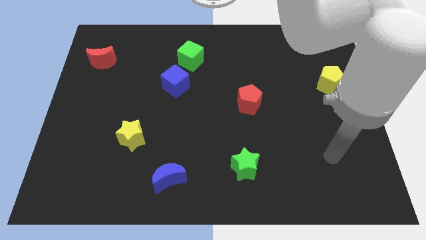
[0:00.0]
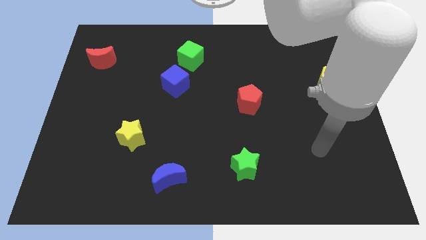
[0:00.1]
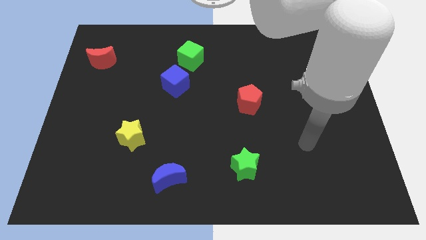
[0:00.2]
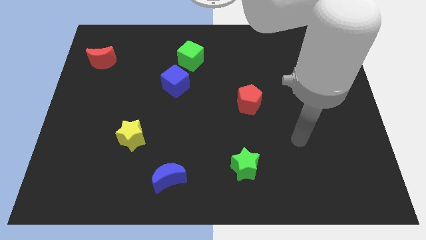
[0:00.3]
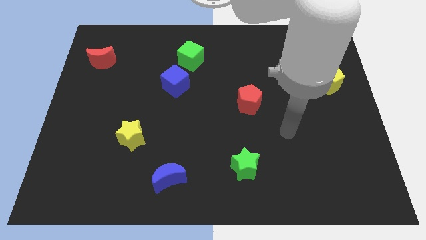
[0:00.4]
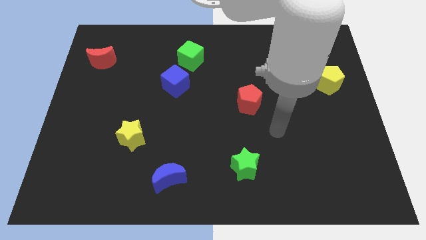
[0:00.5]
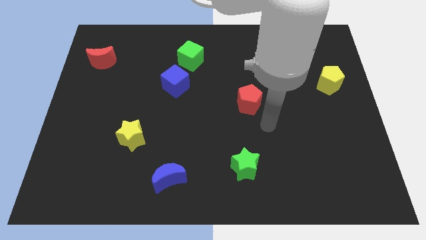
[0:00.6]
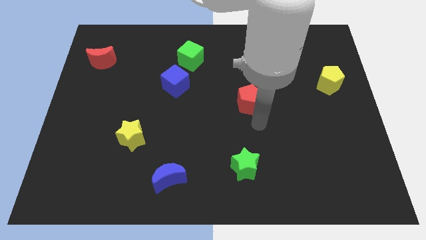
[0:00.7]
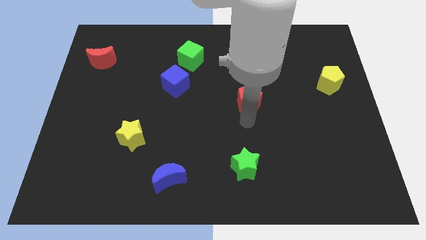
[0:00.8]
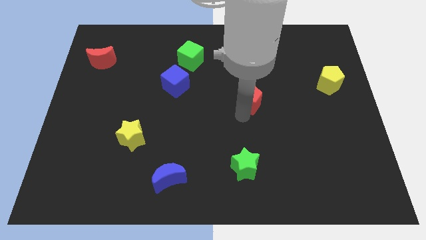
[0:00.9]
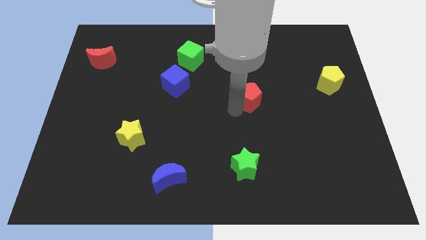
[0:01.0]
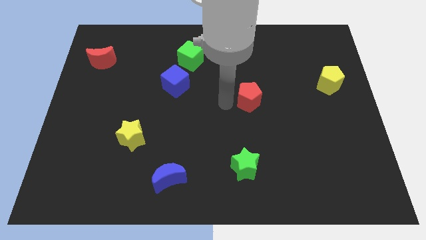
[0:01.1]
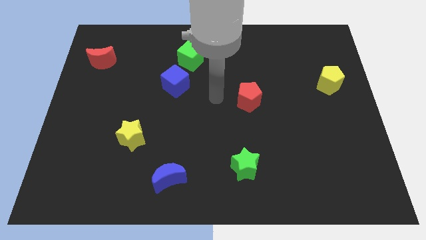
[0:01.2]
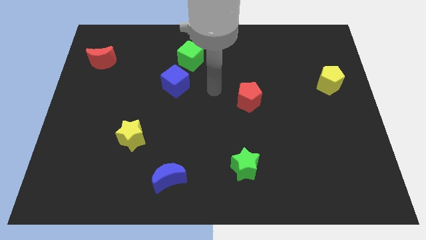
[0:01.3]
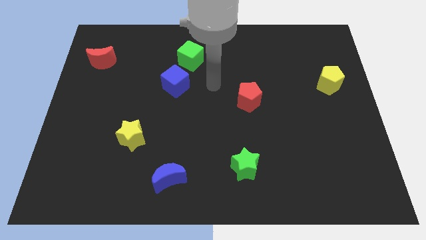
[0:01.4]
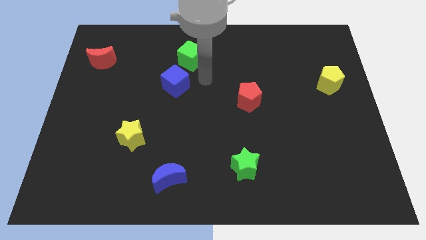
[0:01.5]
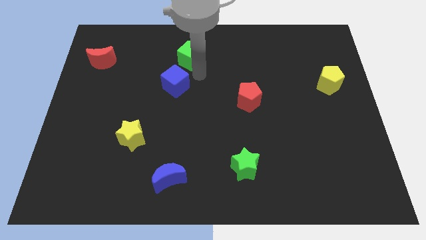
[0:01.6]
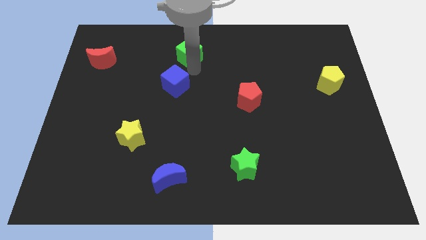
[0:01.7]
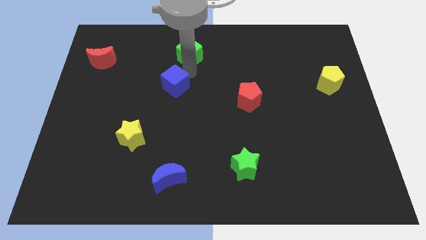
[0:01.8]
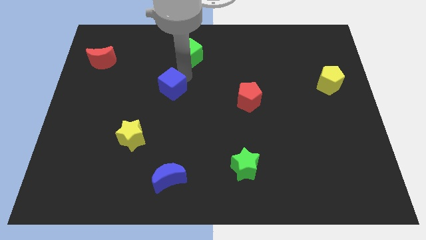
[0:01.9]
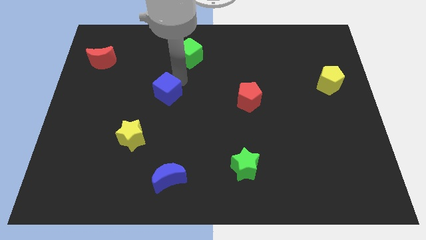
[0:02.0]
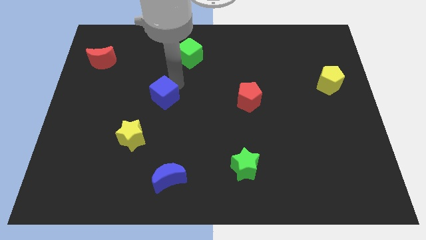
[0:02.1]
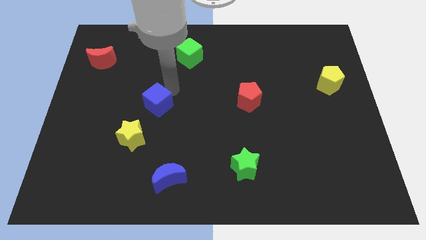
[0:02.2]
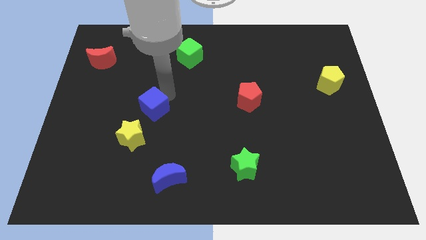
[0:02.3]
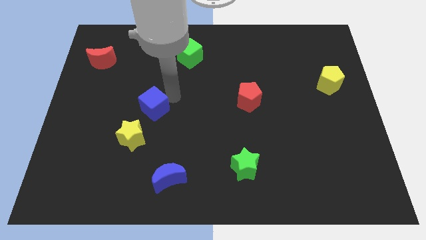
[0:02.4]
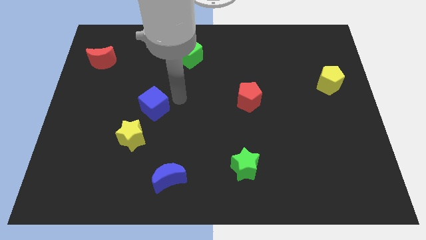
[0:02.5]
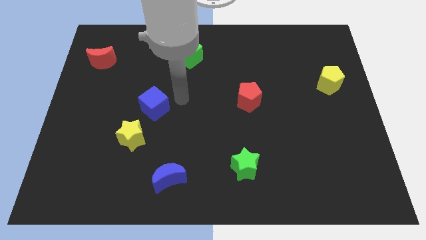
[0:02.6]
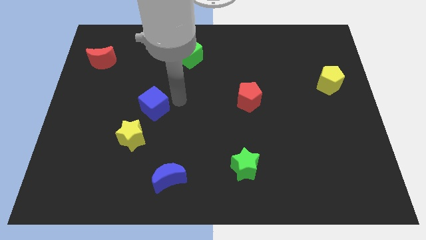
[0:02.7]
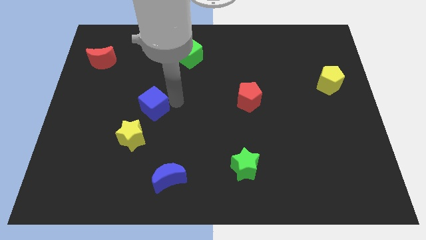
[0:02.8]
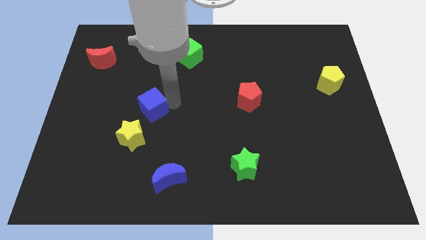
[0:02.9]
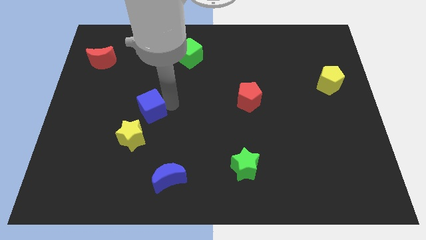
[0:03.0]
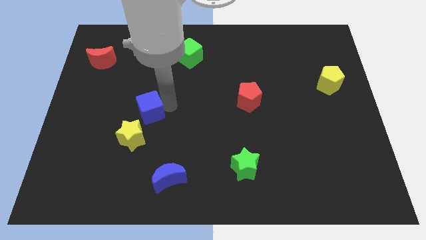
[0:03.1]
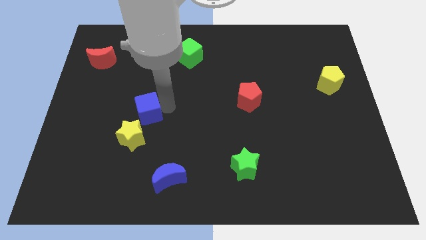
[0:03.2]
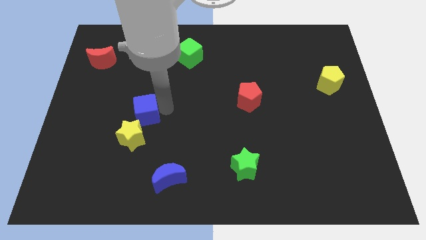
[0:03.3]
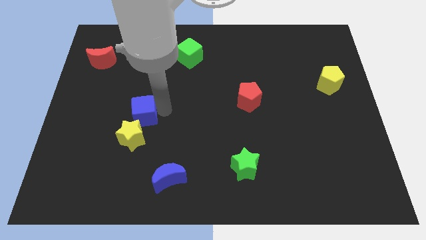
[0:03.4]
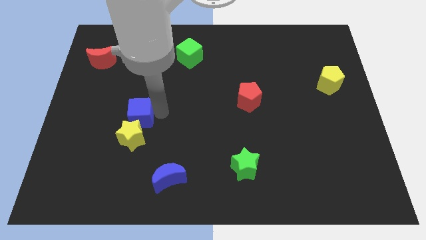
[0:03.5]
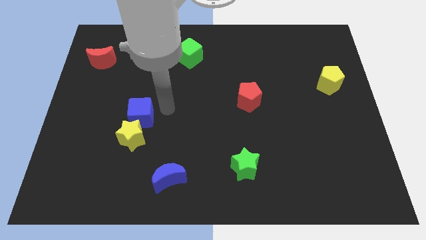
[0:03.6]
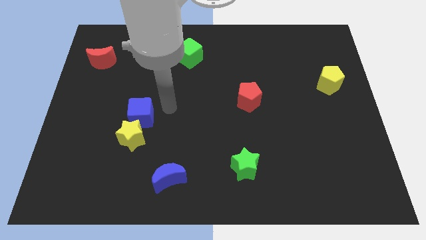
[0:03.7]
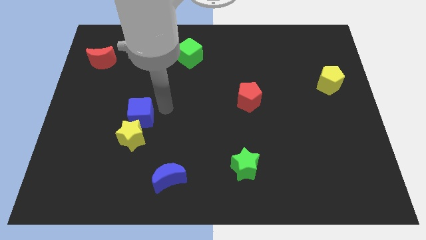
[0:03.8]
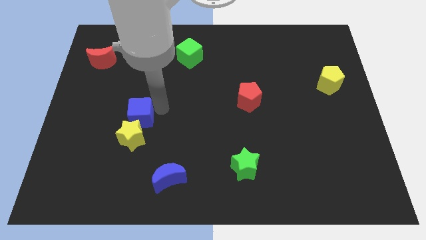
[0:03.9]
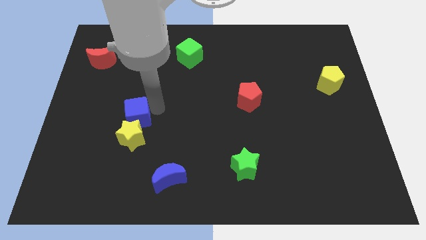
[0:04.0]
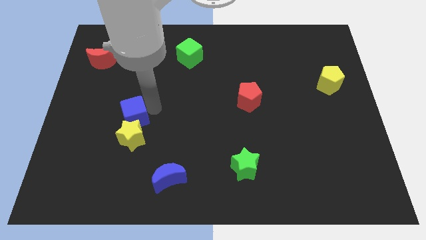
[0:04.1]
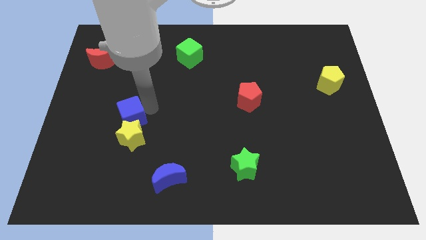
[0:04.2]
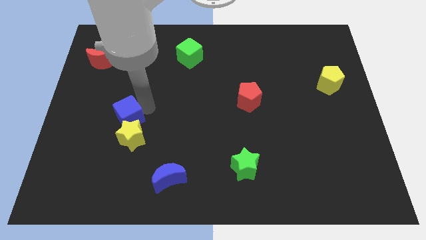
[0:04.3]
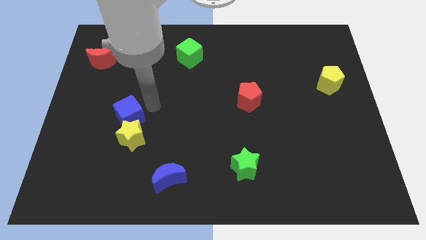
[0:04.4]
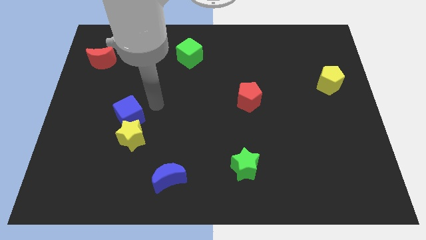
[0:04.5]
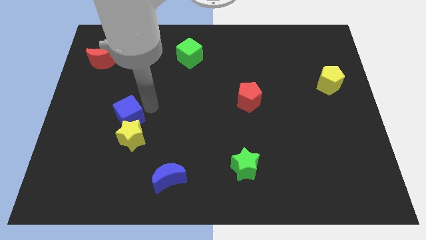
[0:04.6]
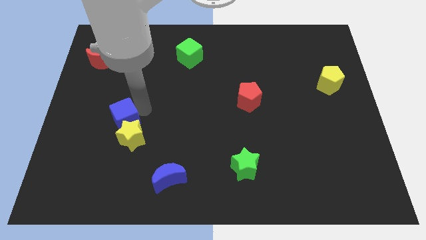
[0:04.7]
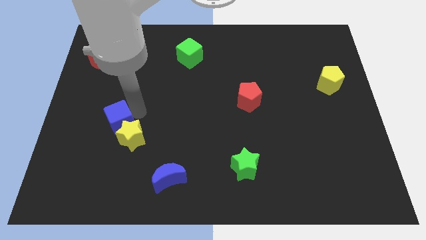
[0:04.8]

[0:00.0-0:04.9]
push the blue cube to the left side of the yellow star

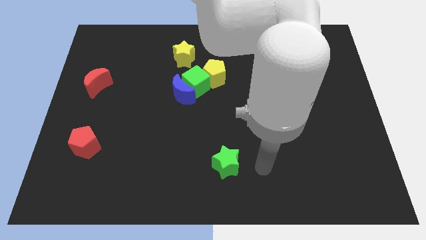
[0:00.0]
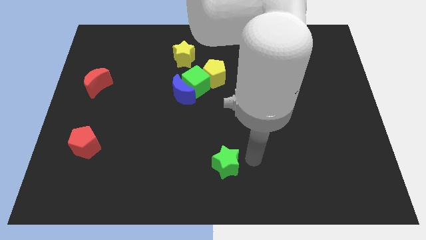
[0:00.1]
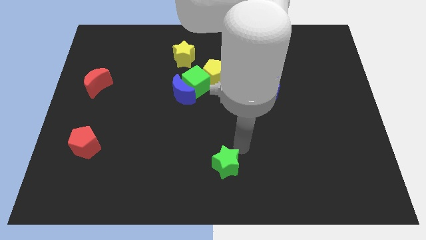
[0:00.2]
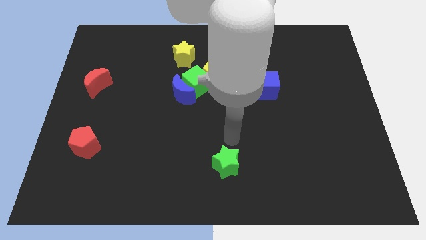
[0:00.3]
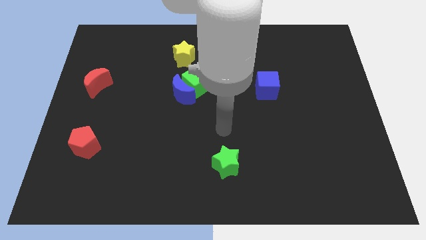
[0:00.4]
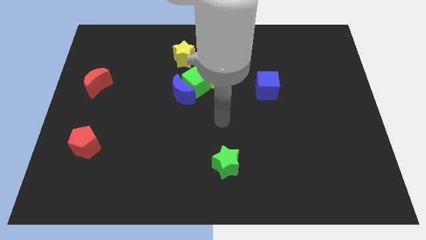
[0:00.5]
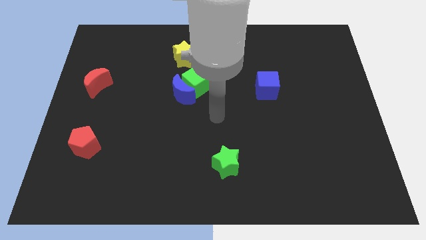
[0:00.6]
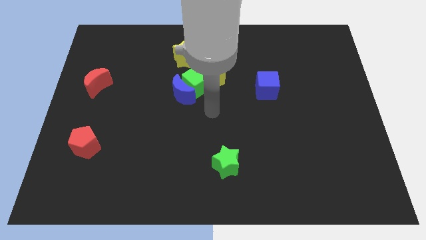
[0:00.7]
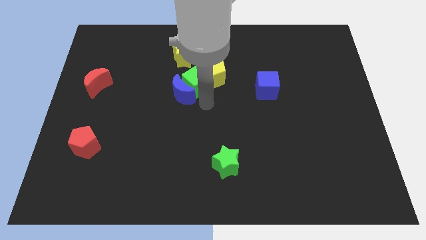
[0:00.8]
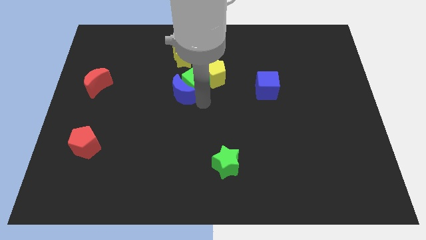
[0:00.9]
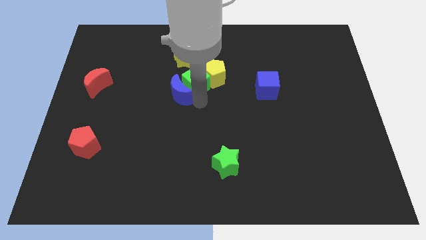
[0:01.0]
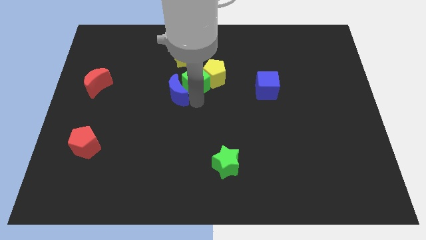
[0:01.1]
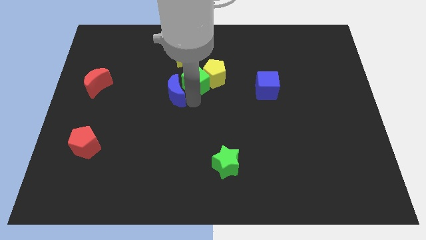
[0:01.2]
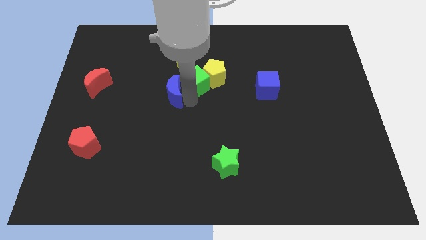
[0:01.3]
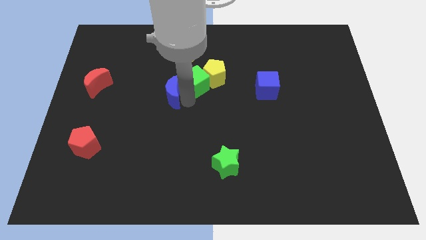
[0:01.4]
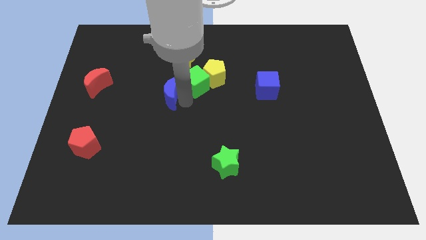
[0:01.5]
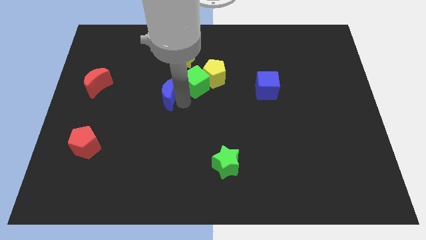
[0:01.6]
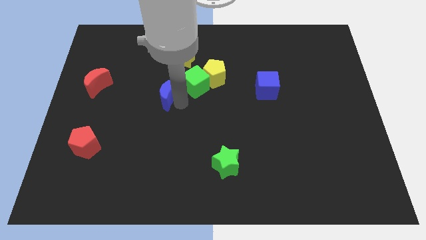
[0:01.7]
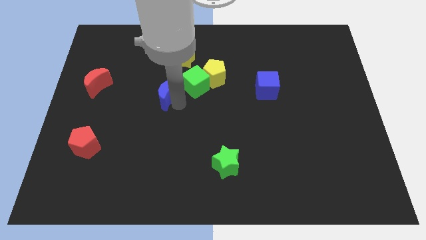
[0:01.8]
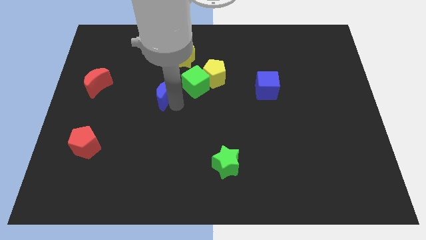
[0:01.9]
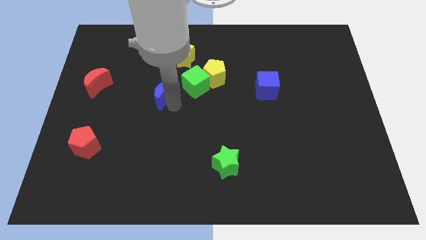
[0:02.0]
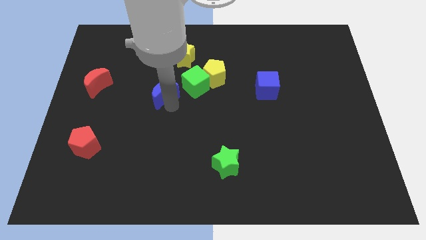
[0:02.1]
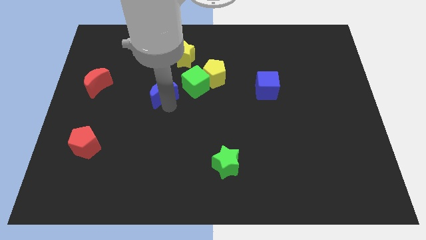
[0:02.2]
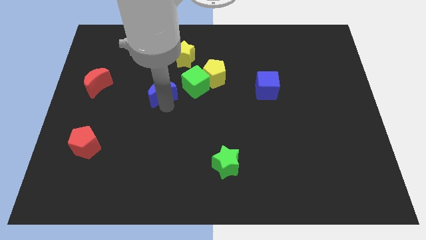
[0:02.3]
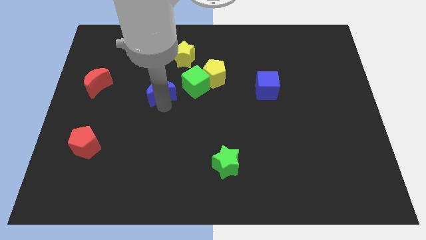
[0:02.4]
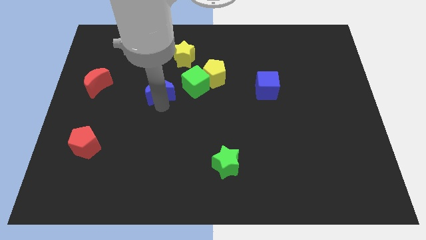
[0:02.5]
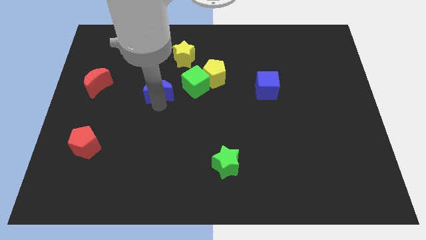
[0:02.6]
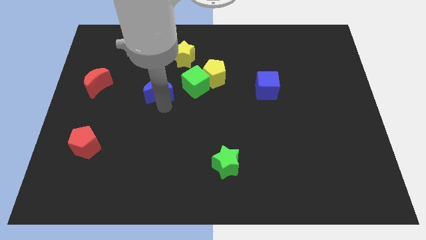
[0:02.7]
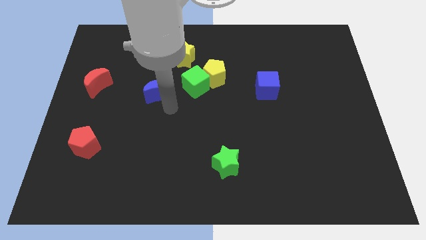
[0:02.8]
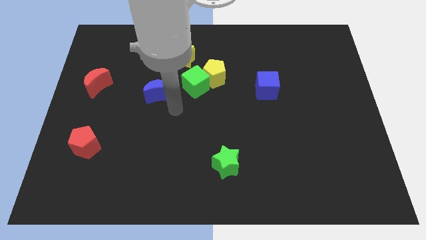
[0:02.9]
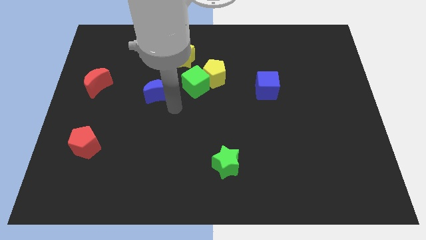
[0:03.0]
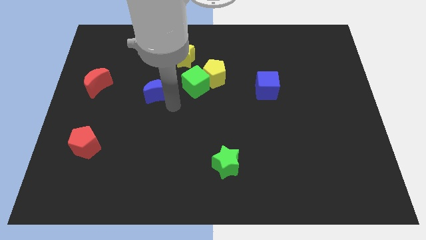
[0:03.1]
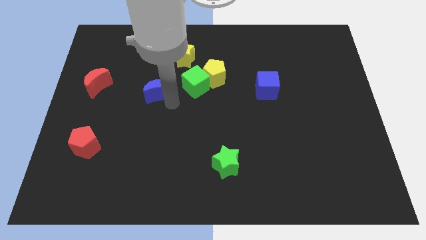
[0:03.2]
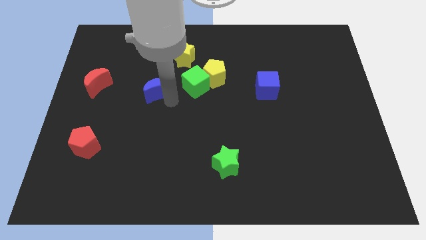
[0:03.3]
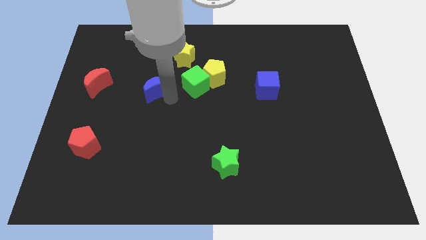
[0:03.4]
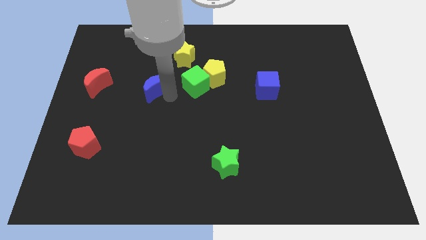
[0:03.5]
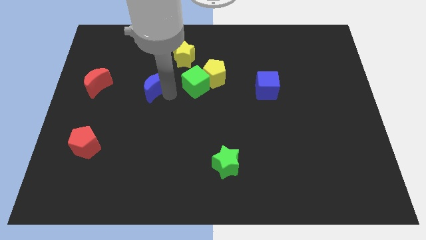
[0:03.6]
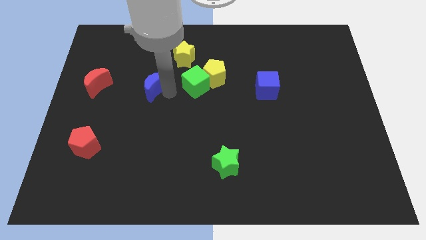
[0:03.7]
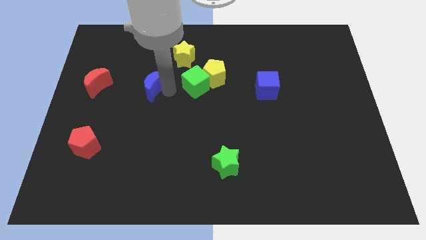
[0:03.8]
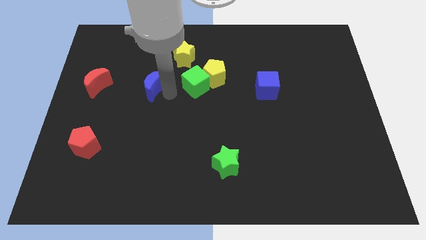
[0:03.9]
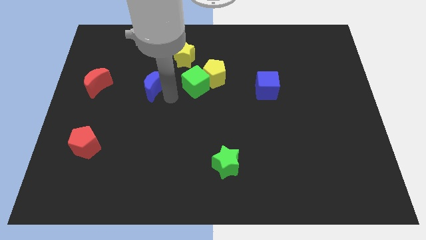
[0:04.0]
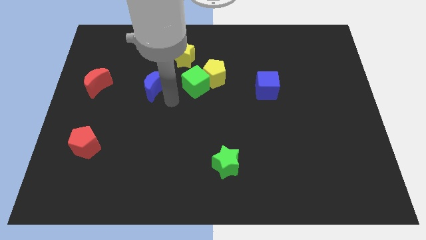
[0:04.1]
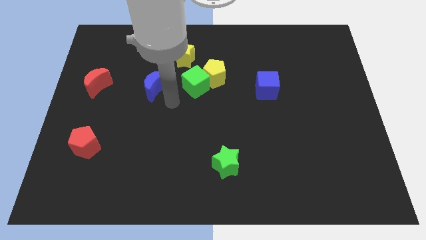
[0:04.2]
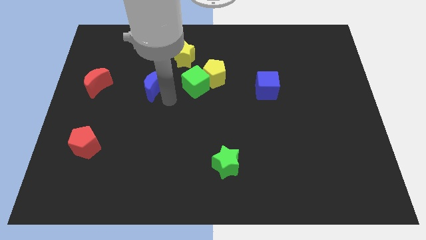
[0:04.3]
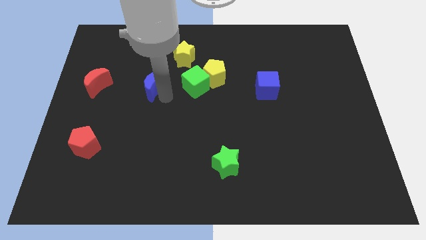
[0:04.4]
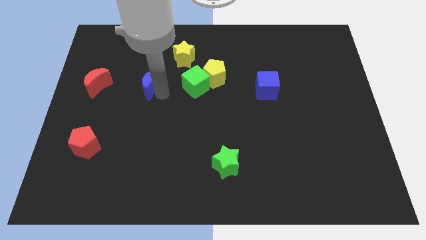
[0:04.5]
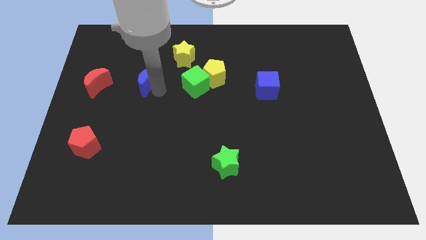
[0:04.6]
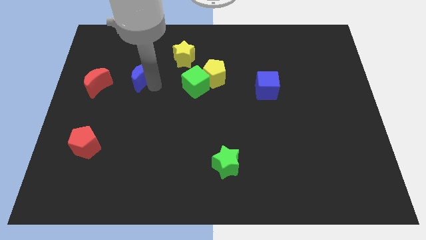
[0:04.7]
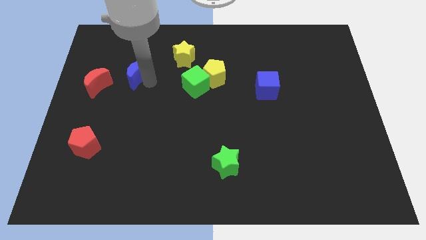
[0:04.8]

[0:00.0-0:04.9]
put the blue moon to the top right side of the red moon
